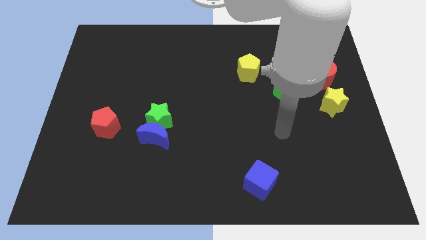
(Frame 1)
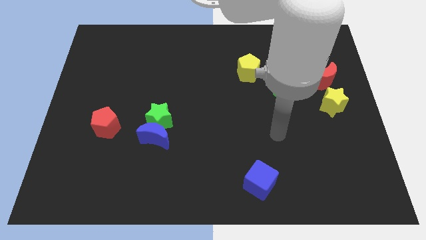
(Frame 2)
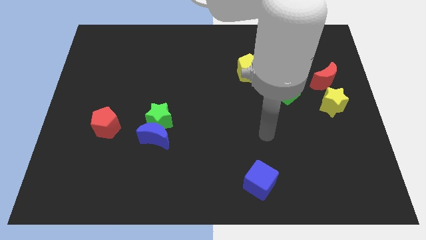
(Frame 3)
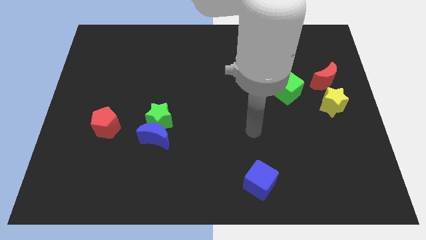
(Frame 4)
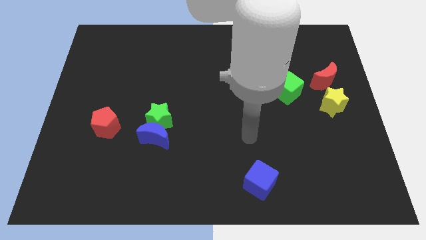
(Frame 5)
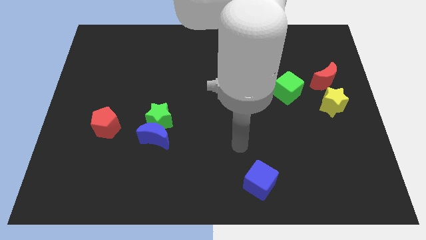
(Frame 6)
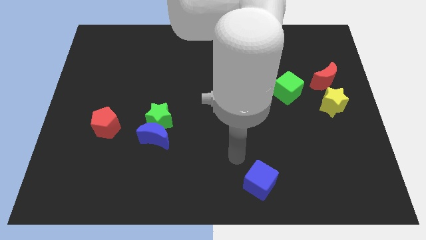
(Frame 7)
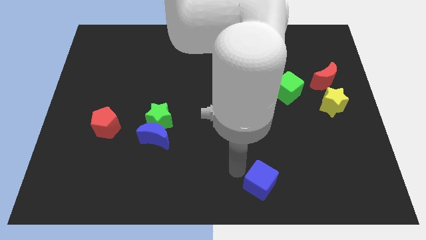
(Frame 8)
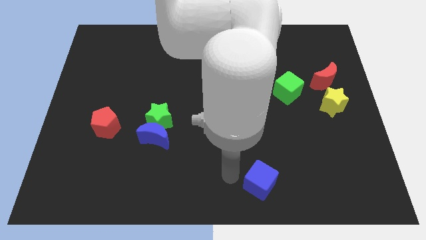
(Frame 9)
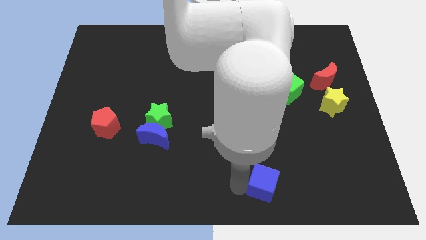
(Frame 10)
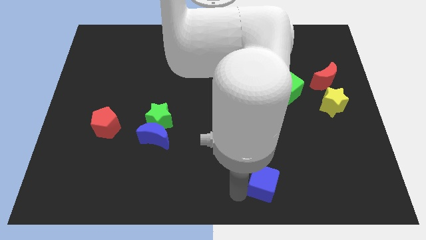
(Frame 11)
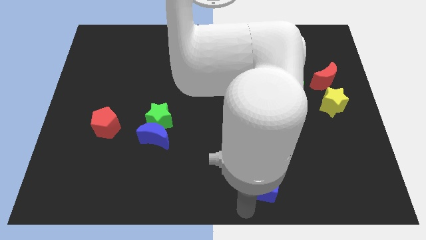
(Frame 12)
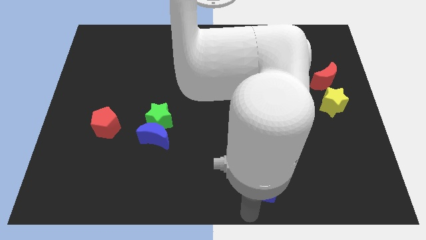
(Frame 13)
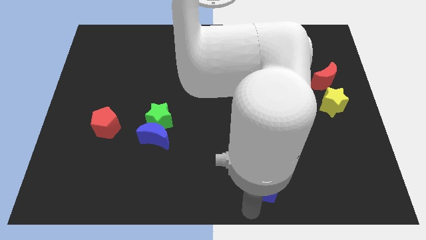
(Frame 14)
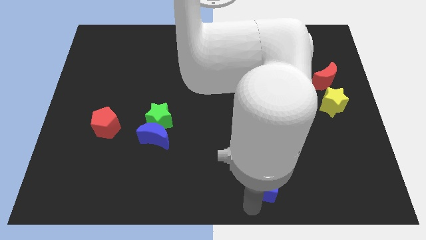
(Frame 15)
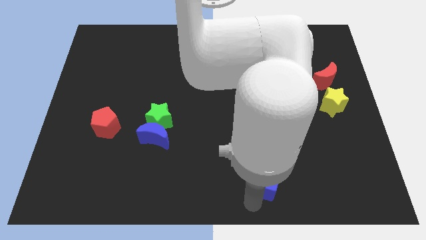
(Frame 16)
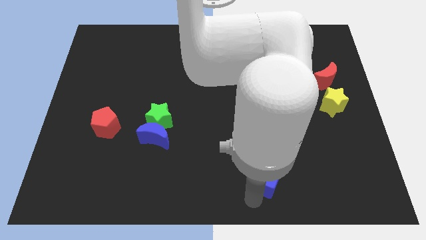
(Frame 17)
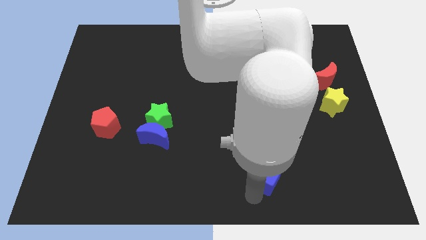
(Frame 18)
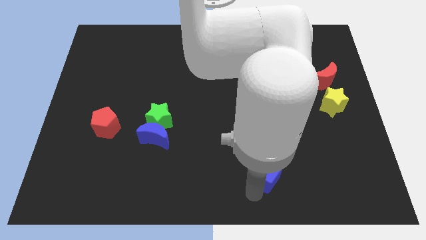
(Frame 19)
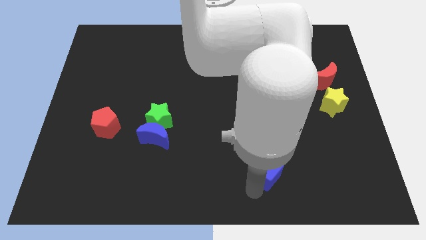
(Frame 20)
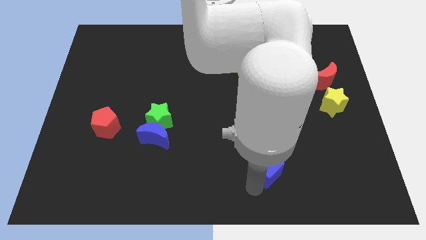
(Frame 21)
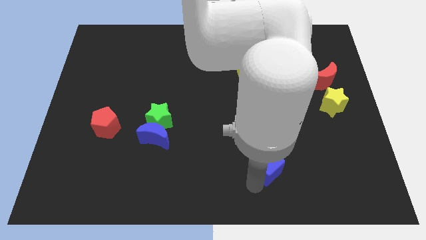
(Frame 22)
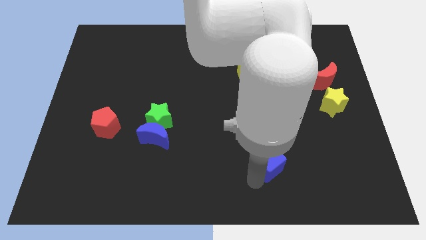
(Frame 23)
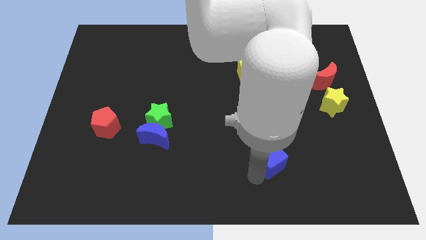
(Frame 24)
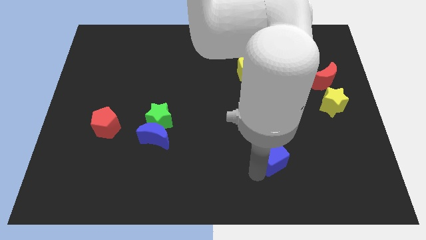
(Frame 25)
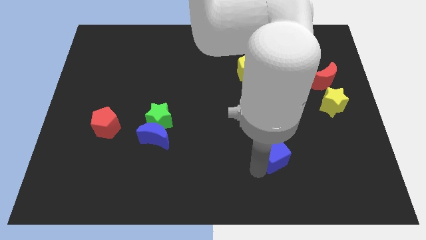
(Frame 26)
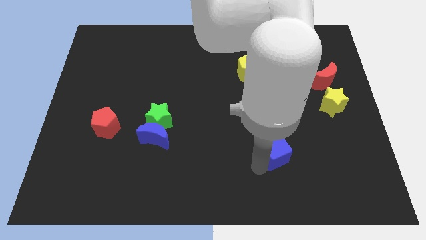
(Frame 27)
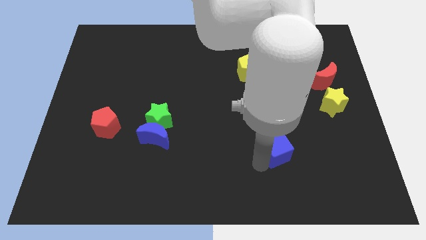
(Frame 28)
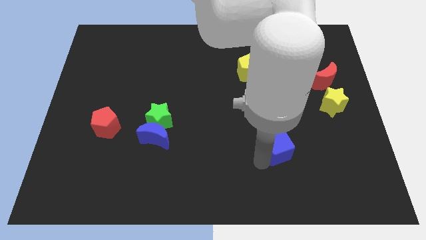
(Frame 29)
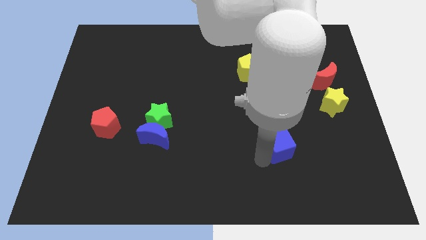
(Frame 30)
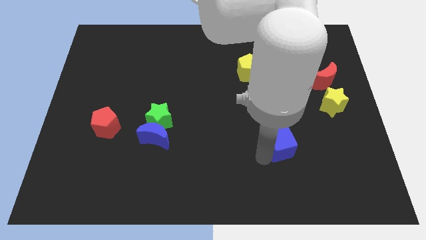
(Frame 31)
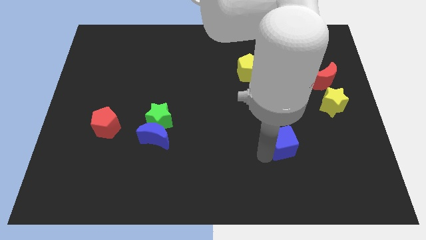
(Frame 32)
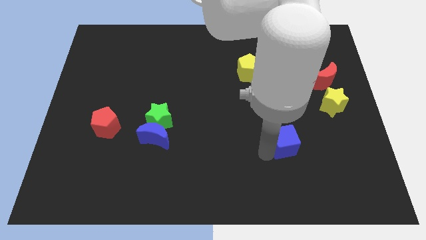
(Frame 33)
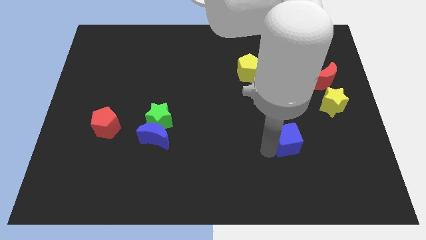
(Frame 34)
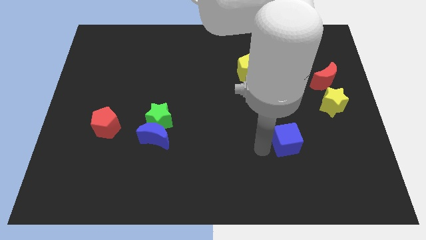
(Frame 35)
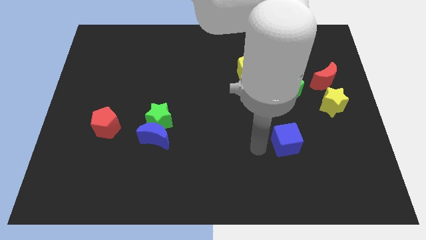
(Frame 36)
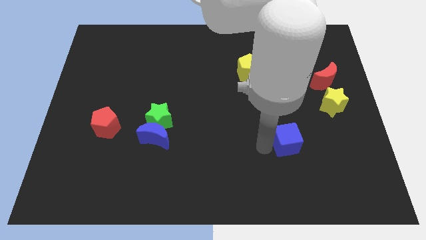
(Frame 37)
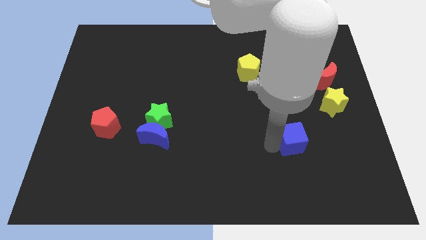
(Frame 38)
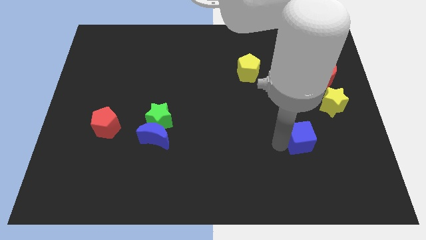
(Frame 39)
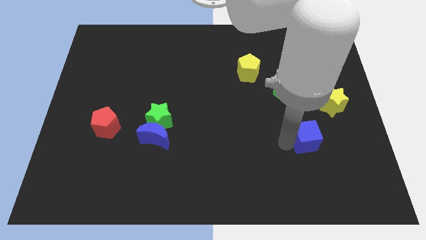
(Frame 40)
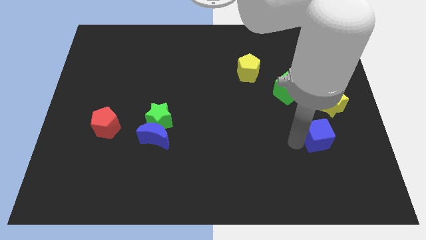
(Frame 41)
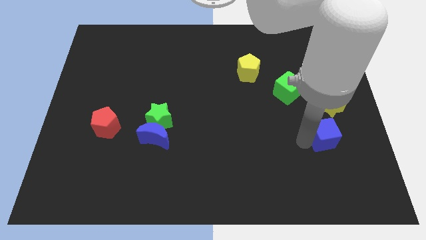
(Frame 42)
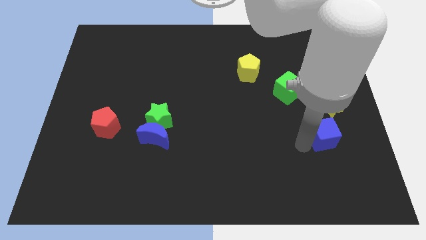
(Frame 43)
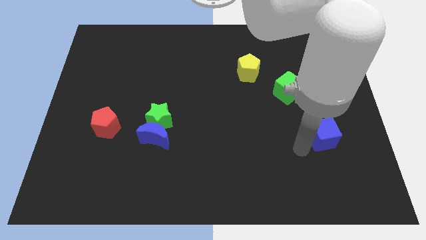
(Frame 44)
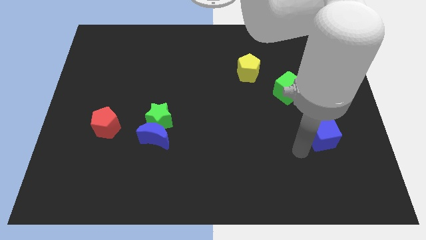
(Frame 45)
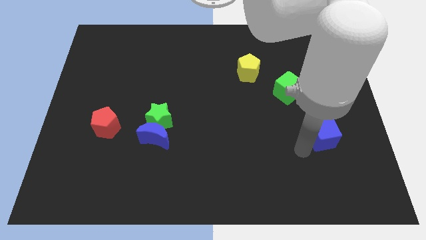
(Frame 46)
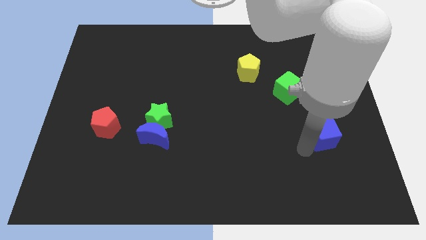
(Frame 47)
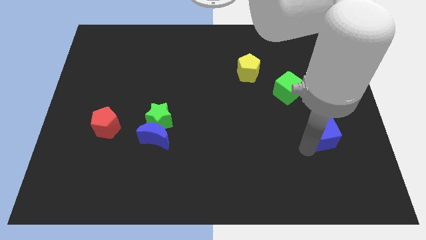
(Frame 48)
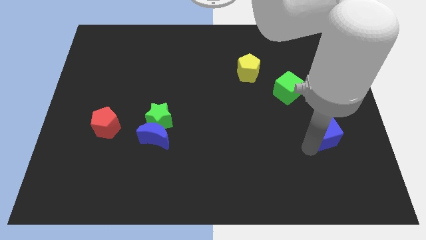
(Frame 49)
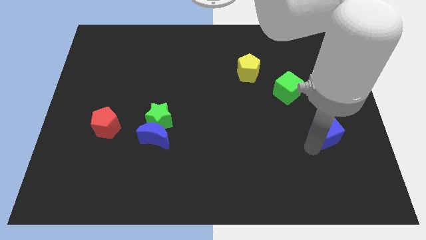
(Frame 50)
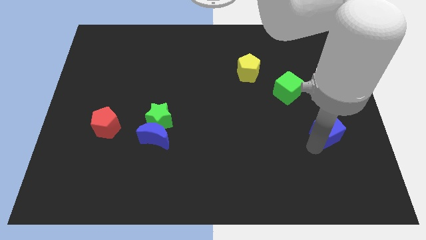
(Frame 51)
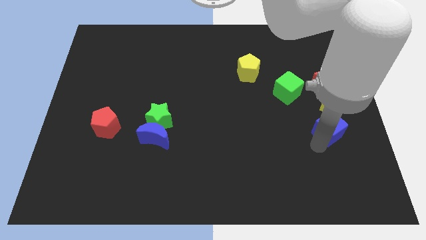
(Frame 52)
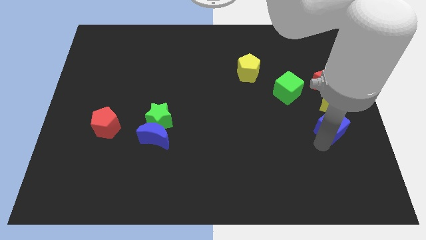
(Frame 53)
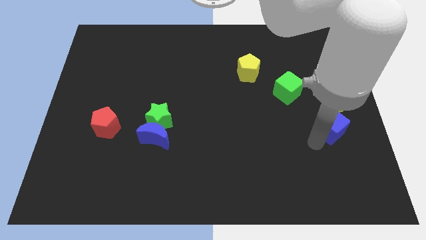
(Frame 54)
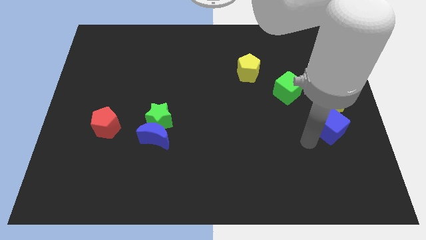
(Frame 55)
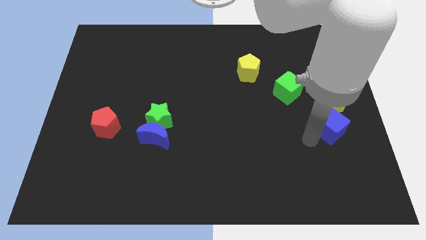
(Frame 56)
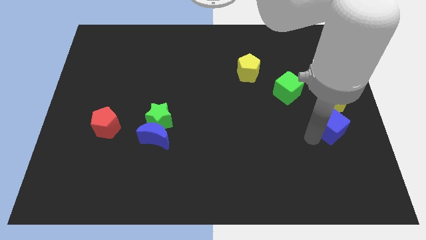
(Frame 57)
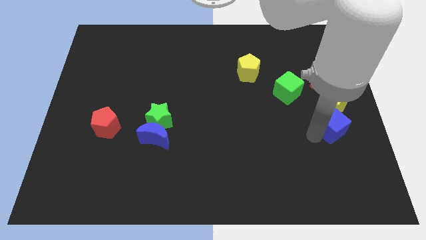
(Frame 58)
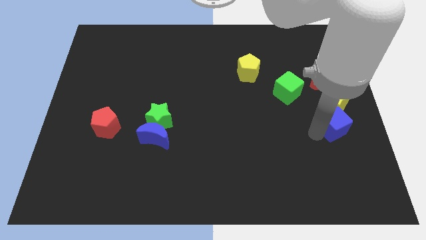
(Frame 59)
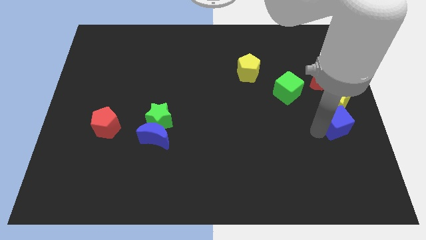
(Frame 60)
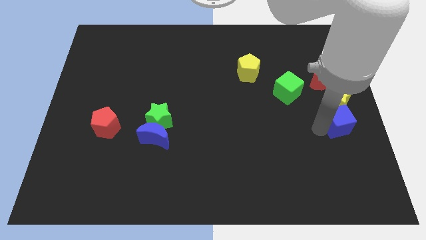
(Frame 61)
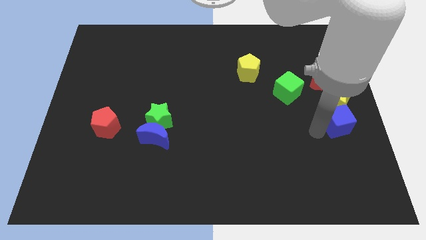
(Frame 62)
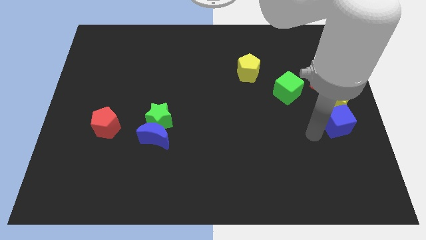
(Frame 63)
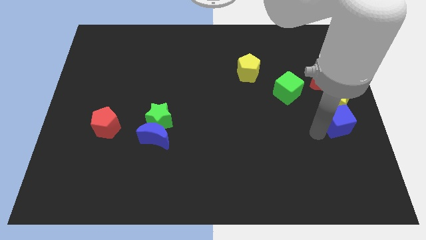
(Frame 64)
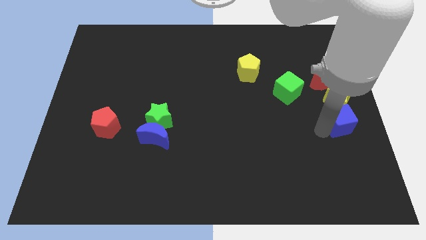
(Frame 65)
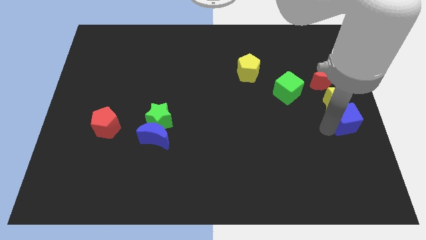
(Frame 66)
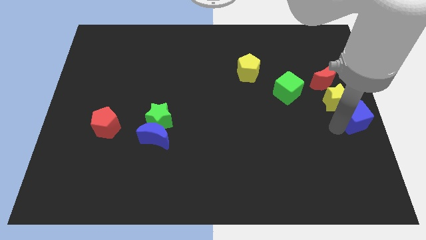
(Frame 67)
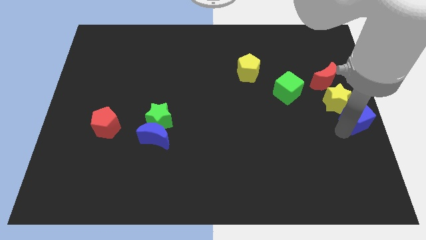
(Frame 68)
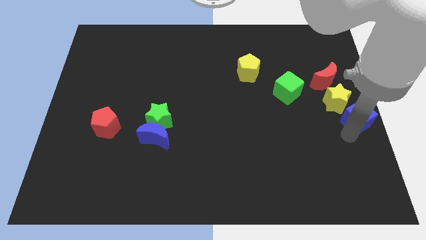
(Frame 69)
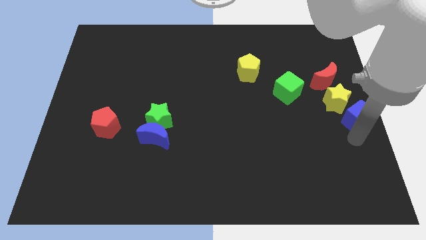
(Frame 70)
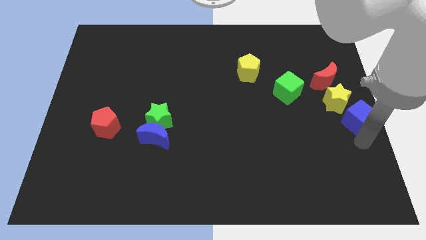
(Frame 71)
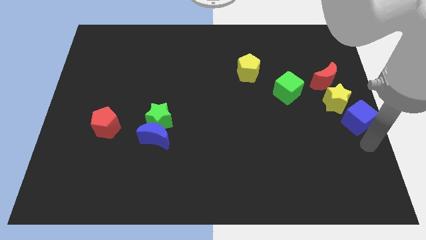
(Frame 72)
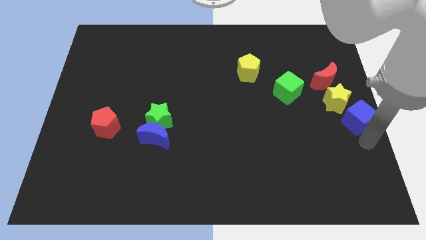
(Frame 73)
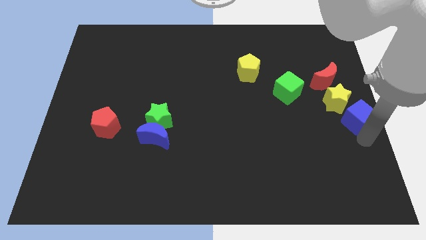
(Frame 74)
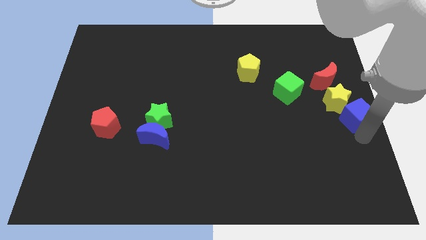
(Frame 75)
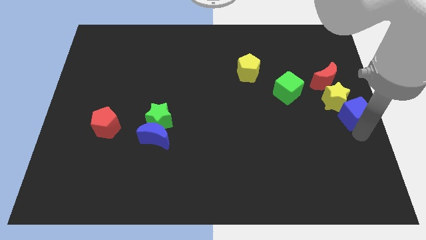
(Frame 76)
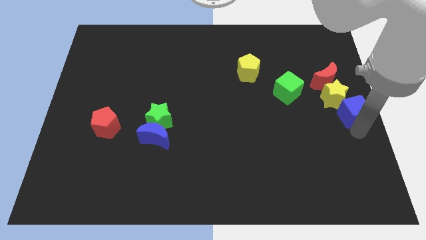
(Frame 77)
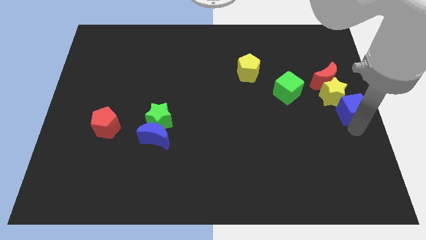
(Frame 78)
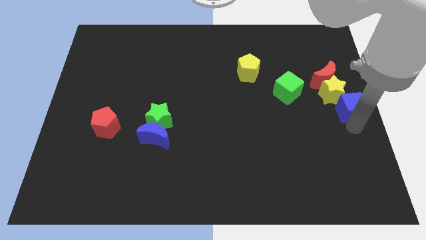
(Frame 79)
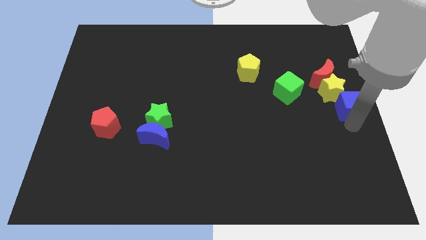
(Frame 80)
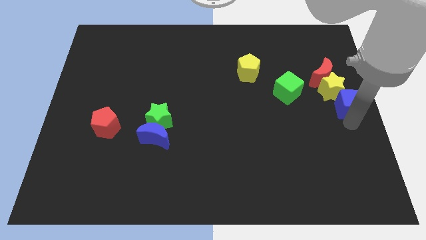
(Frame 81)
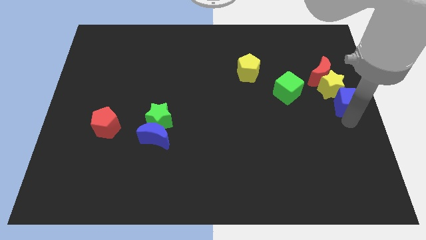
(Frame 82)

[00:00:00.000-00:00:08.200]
move the blue cube to the right of the green cube
